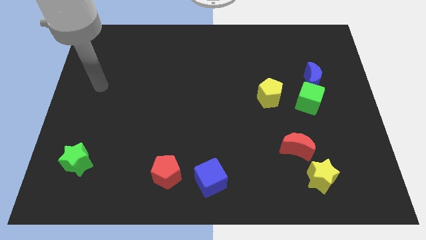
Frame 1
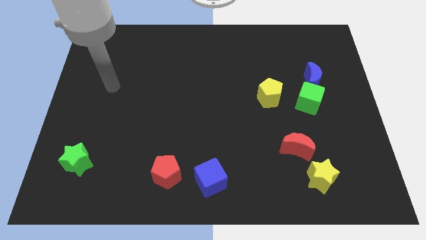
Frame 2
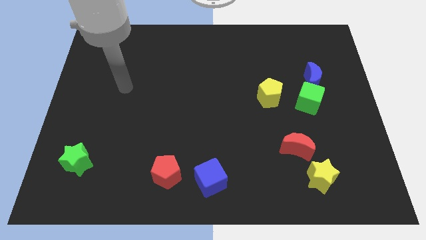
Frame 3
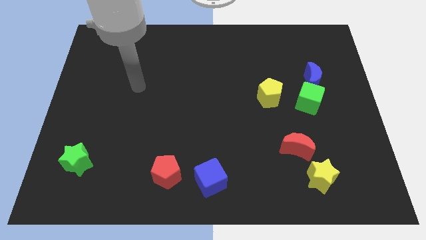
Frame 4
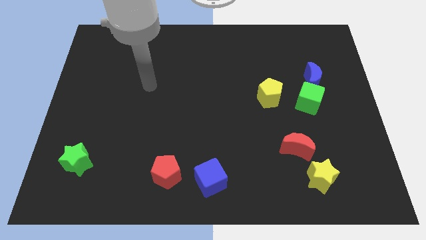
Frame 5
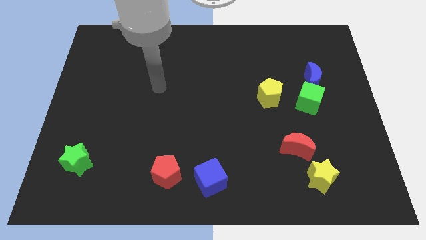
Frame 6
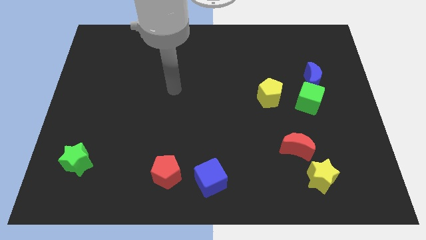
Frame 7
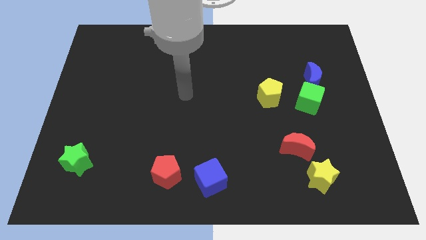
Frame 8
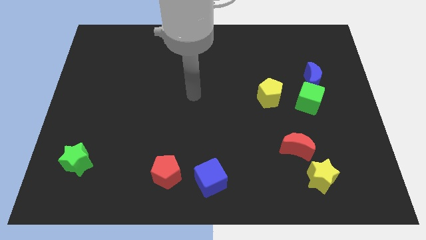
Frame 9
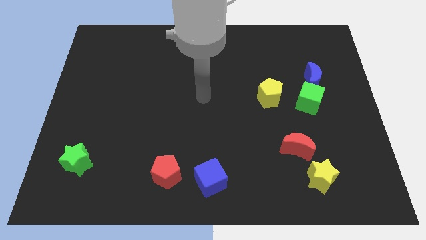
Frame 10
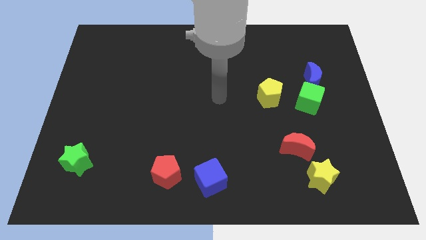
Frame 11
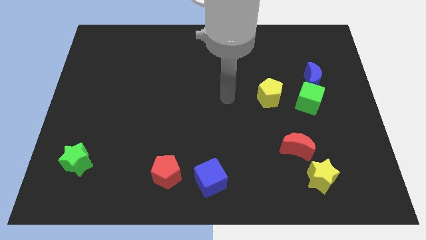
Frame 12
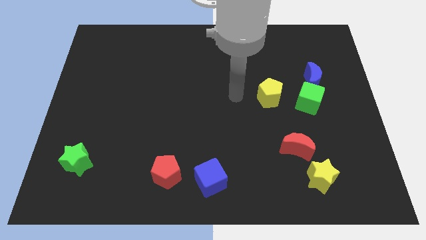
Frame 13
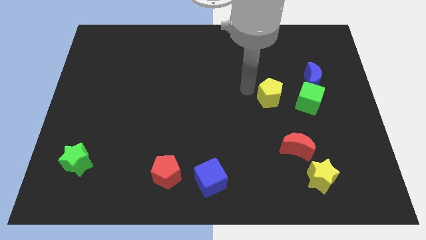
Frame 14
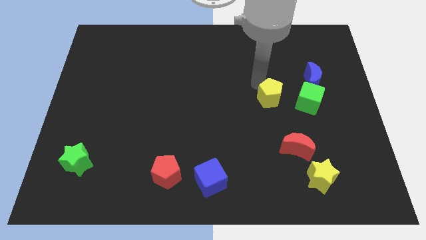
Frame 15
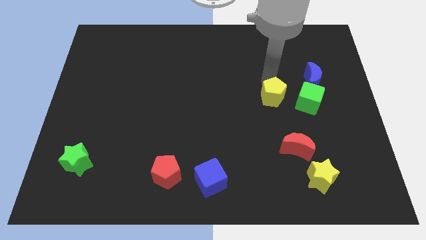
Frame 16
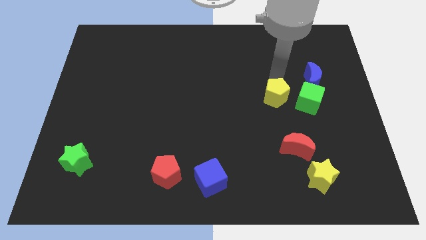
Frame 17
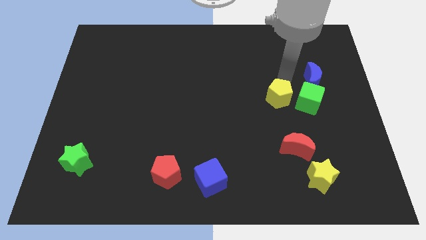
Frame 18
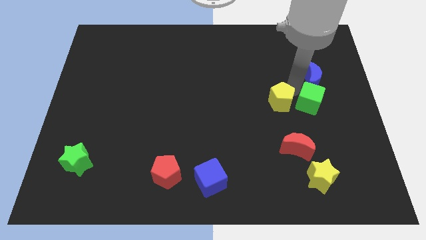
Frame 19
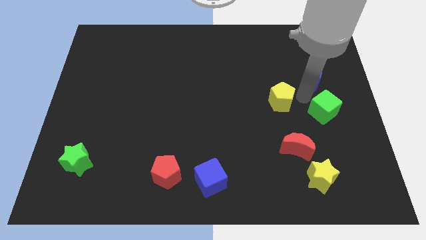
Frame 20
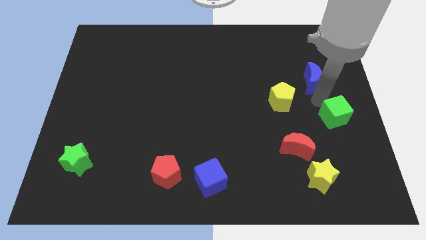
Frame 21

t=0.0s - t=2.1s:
move the blue moon away from the green cube

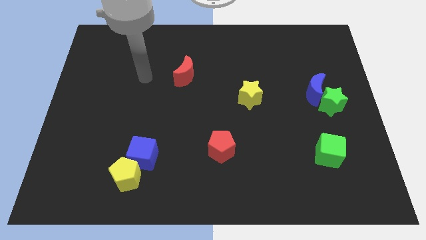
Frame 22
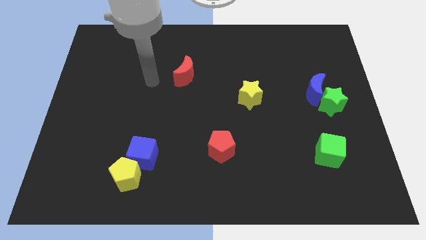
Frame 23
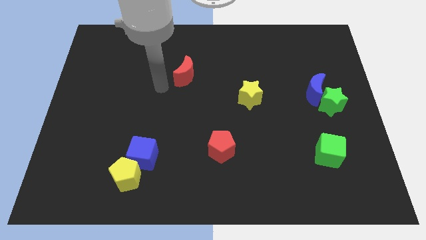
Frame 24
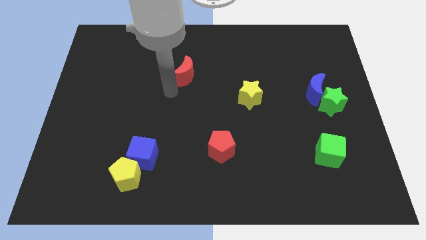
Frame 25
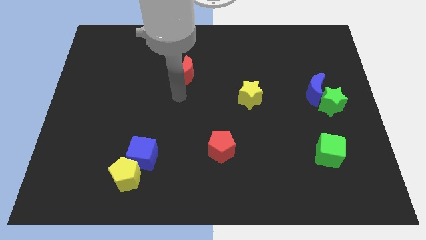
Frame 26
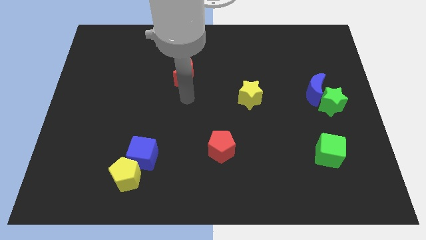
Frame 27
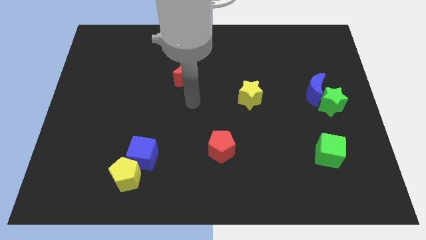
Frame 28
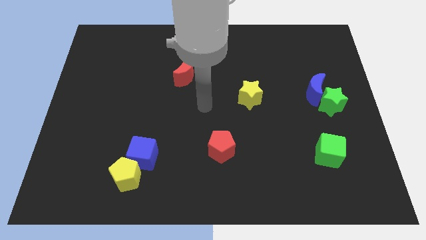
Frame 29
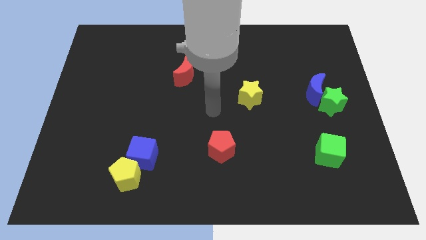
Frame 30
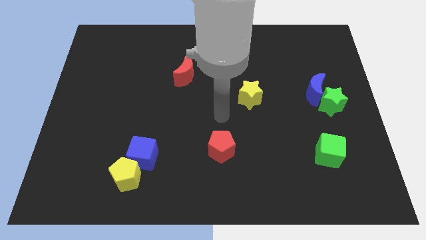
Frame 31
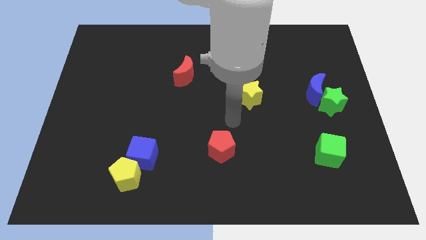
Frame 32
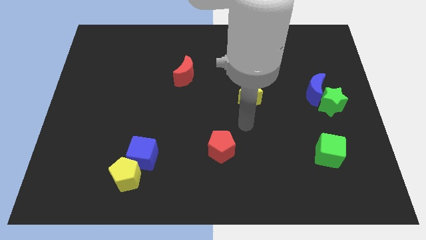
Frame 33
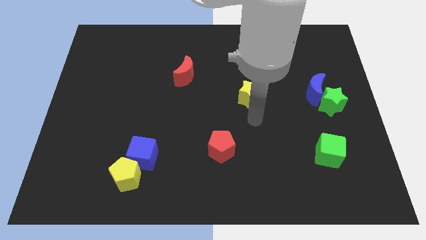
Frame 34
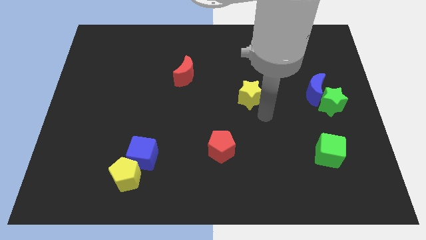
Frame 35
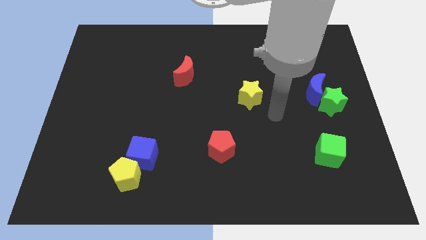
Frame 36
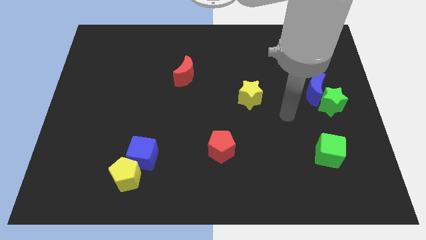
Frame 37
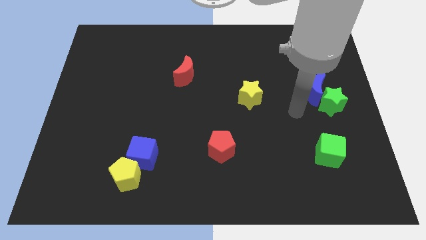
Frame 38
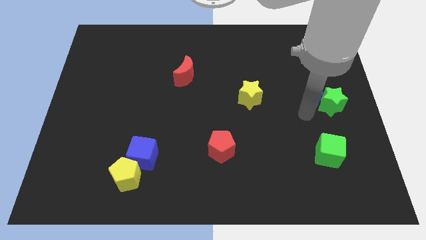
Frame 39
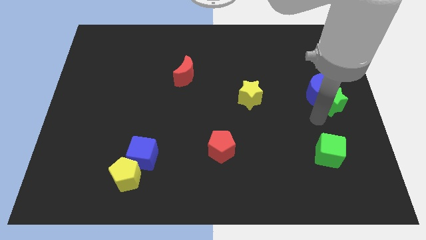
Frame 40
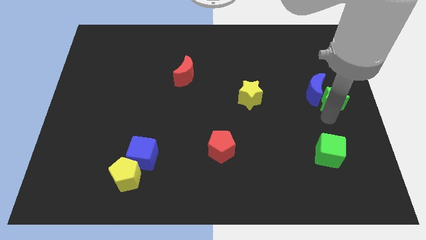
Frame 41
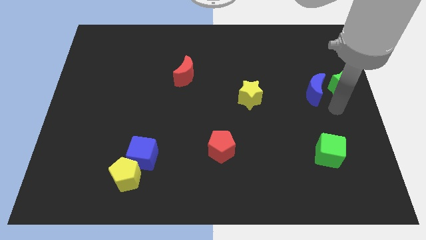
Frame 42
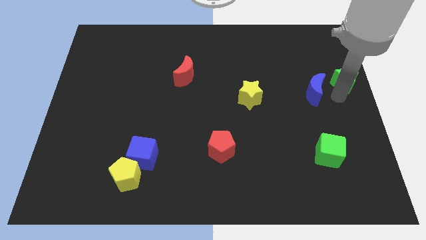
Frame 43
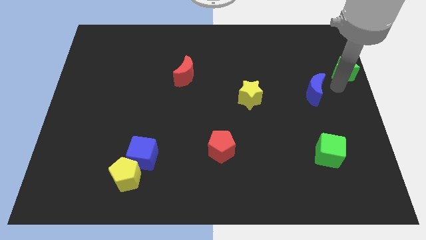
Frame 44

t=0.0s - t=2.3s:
move the blue moon away from the green star

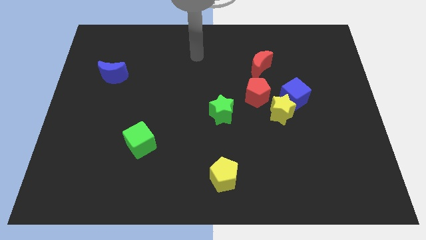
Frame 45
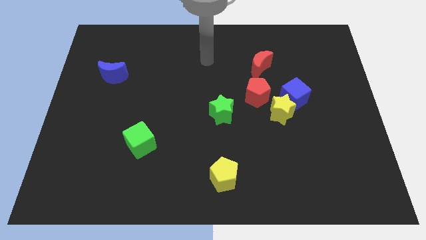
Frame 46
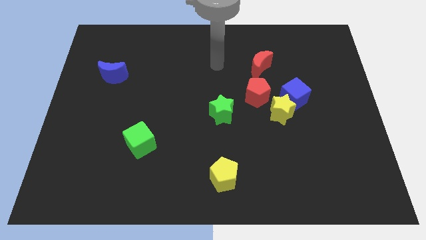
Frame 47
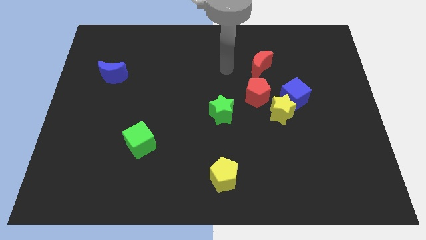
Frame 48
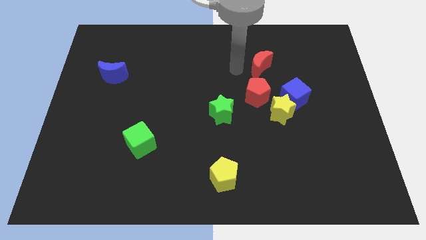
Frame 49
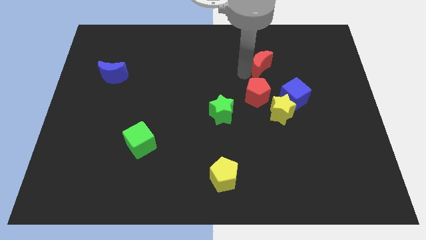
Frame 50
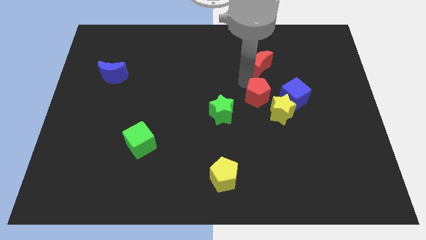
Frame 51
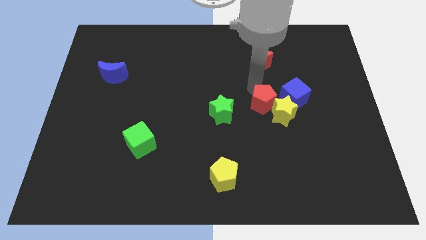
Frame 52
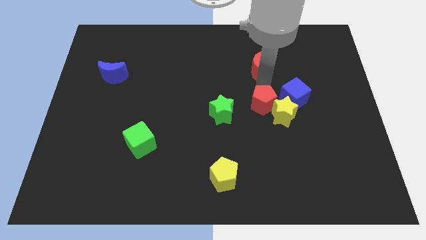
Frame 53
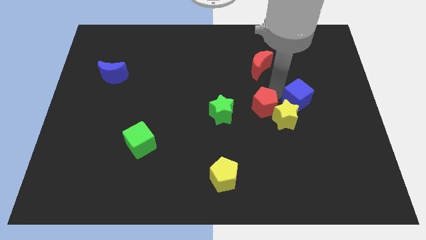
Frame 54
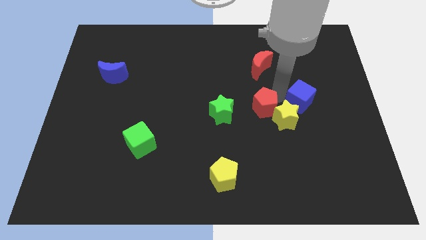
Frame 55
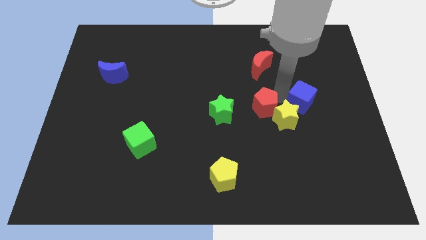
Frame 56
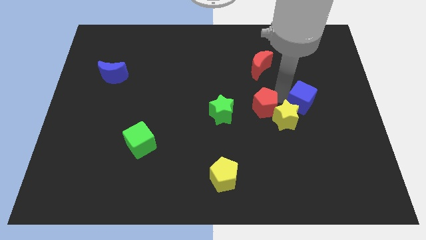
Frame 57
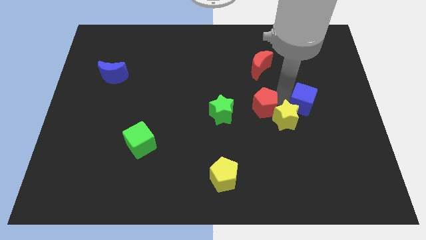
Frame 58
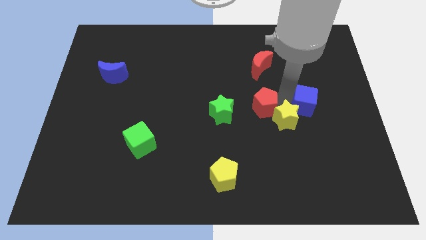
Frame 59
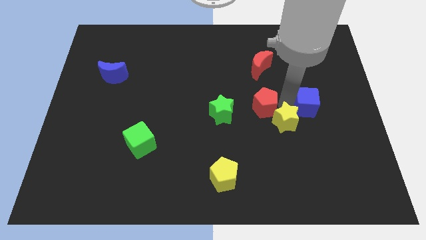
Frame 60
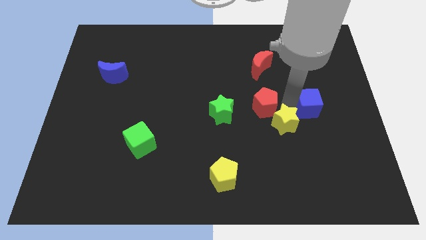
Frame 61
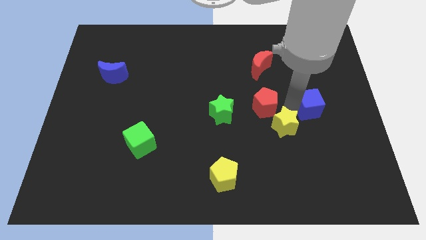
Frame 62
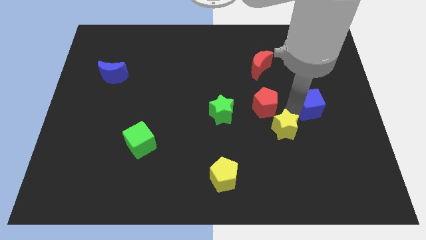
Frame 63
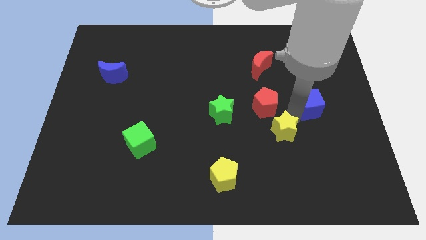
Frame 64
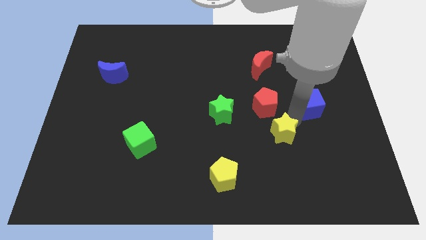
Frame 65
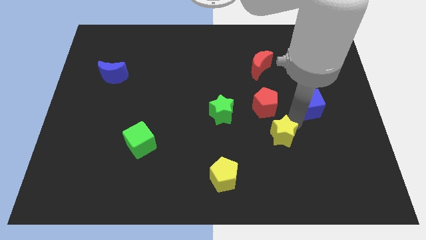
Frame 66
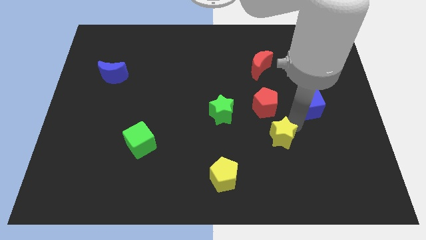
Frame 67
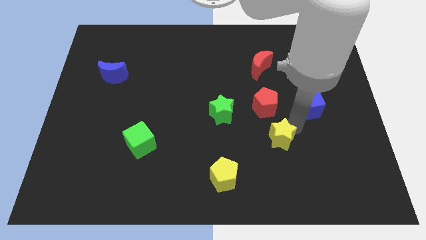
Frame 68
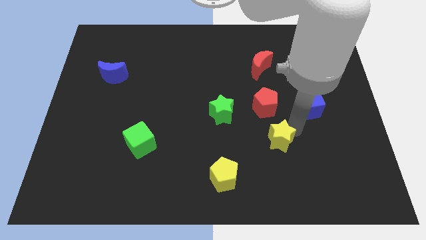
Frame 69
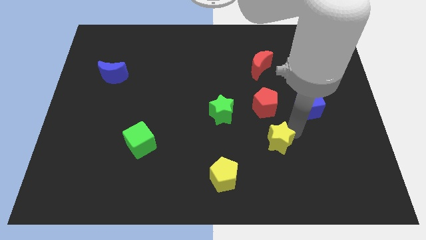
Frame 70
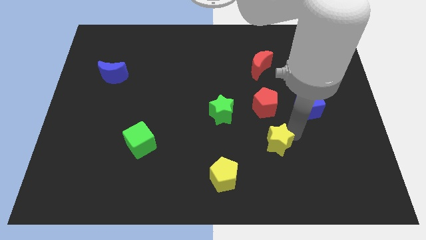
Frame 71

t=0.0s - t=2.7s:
separate the yellow star from the blue cube and red pentagon

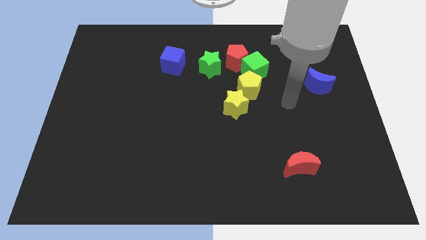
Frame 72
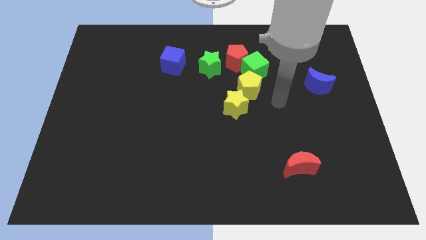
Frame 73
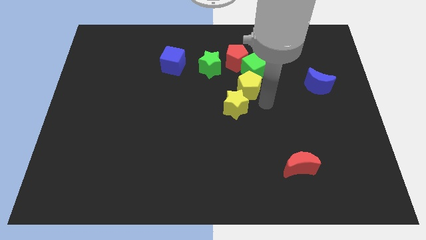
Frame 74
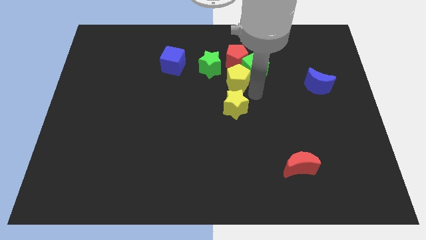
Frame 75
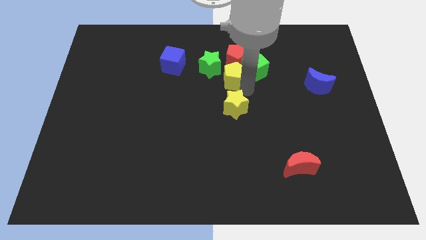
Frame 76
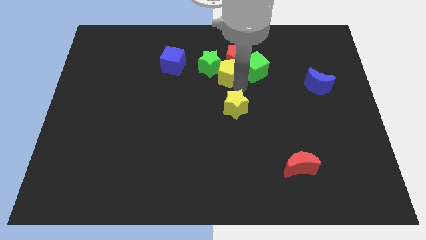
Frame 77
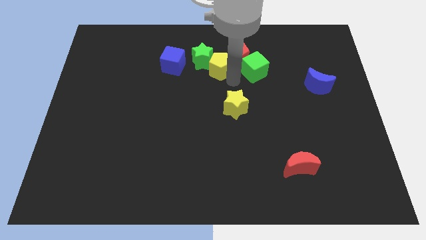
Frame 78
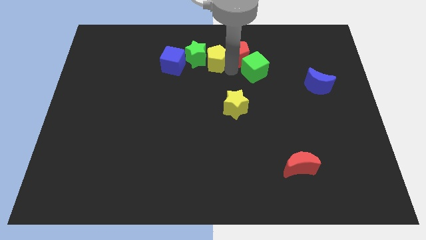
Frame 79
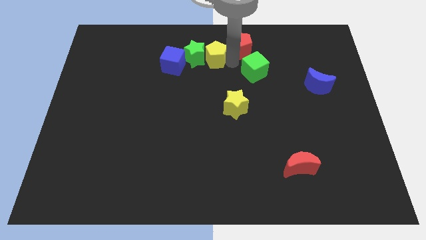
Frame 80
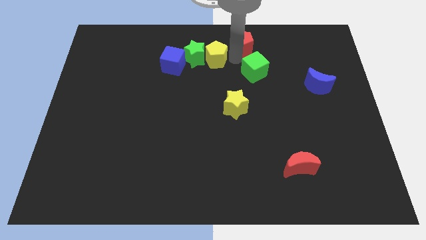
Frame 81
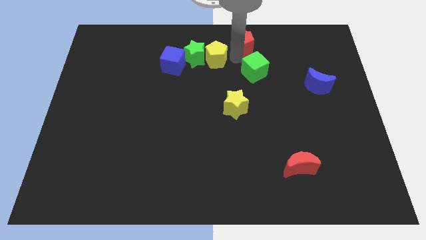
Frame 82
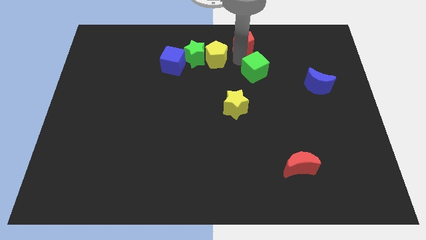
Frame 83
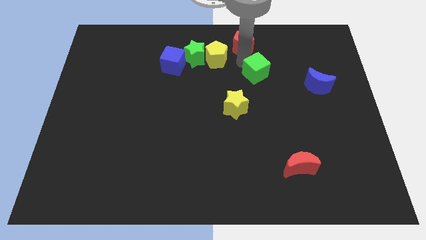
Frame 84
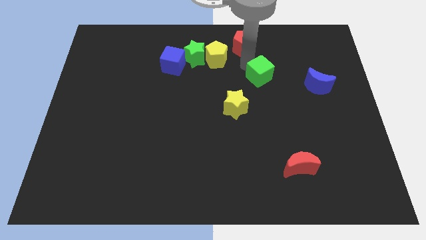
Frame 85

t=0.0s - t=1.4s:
separate the green cube from the red pentagon and yellow pentagon

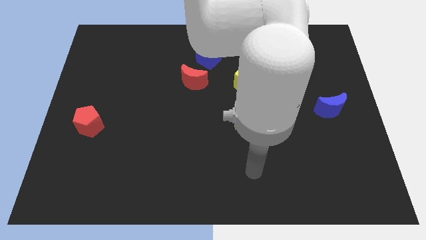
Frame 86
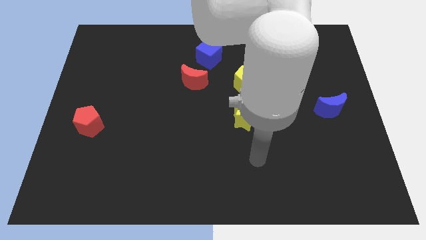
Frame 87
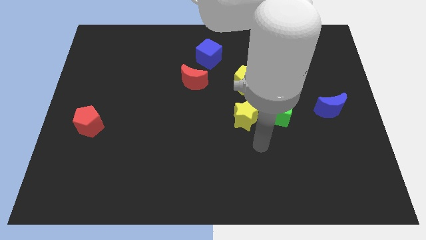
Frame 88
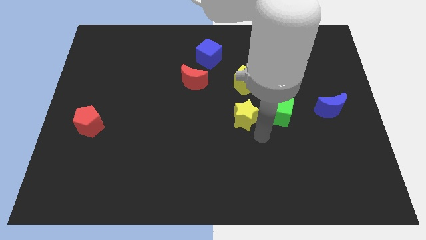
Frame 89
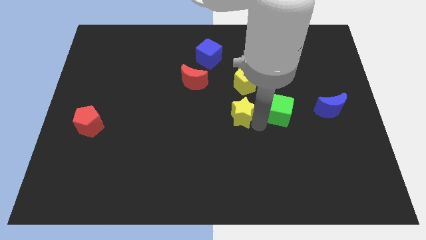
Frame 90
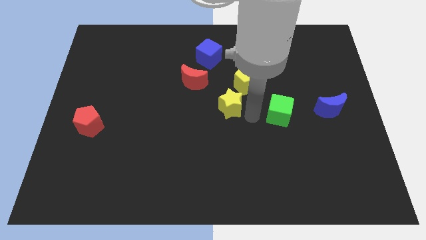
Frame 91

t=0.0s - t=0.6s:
pull the green cube apart from the yellow star

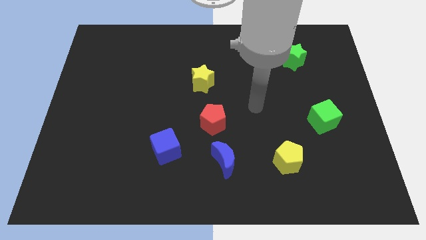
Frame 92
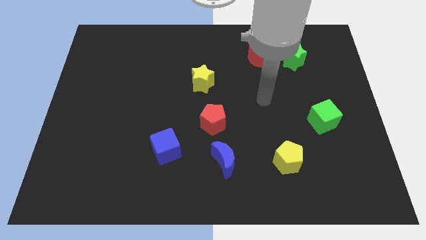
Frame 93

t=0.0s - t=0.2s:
move the red moon away from the green star
